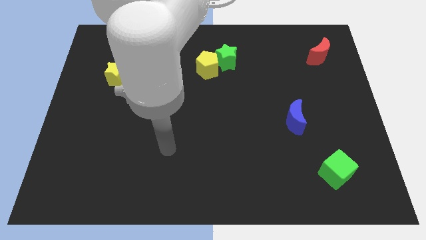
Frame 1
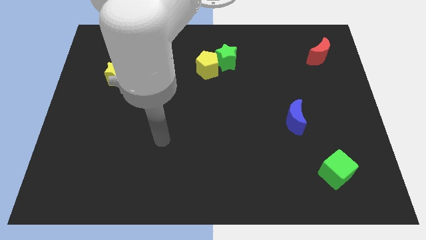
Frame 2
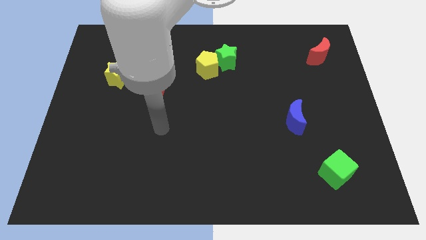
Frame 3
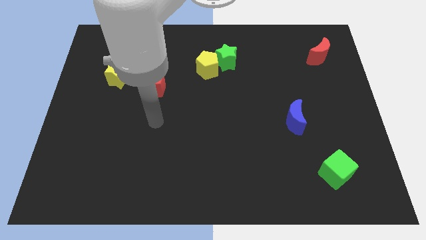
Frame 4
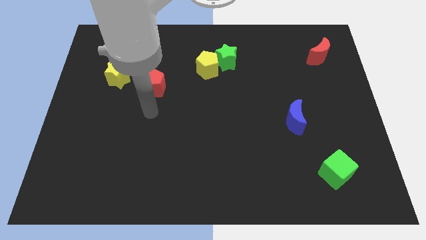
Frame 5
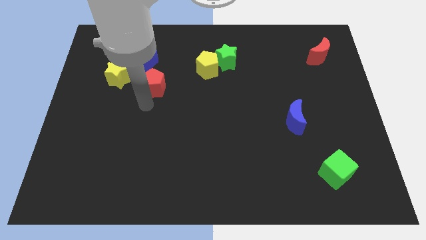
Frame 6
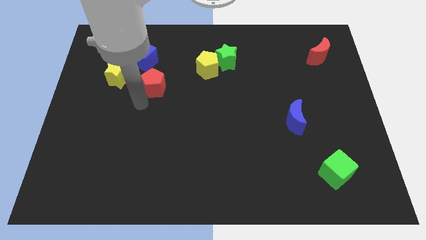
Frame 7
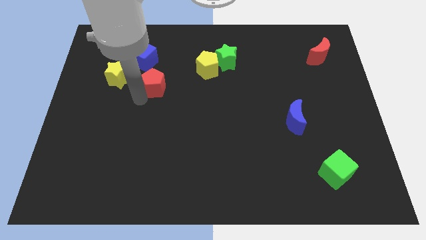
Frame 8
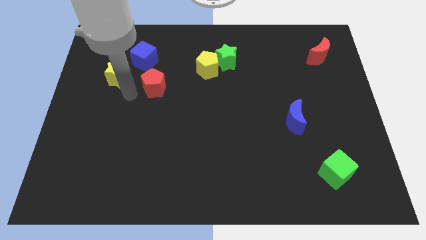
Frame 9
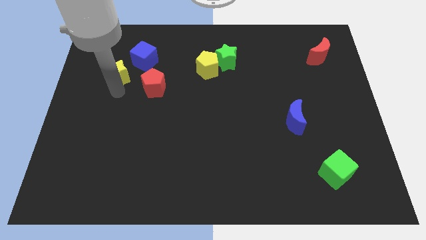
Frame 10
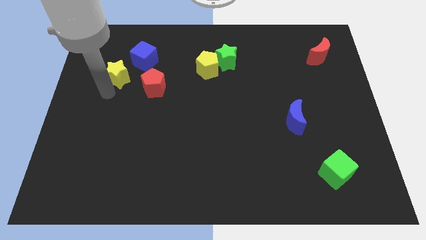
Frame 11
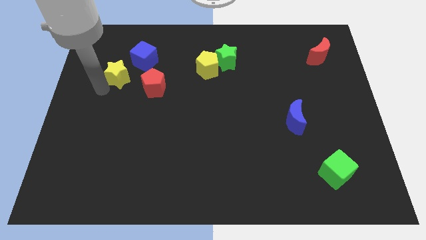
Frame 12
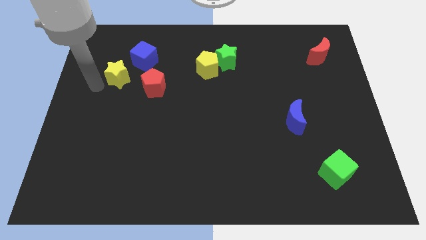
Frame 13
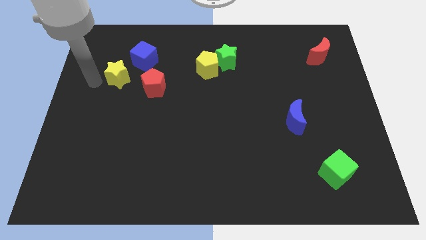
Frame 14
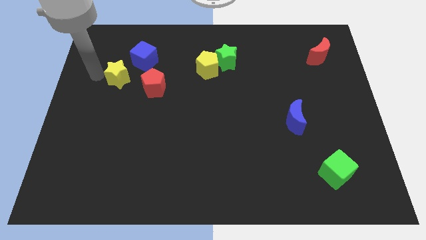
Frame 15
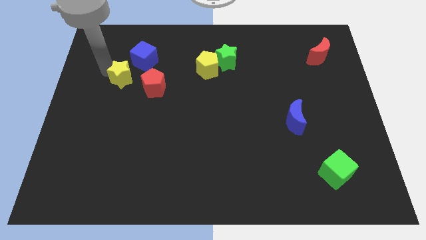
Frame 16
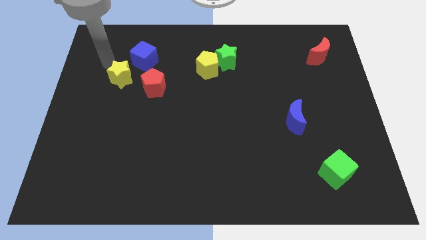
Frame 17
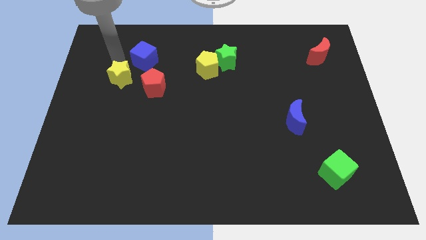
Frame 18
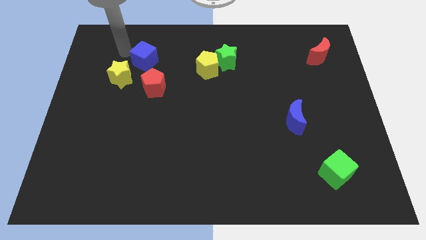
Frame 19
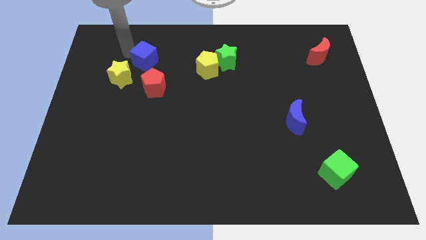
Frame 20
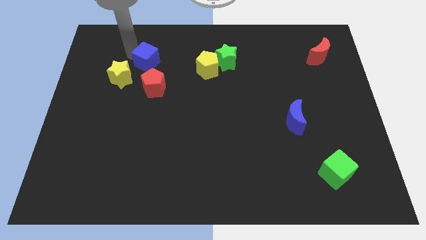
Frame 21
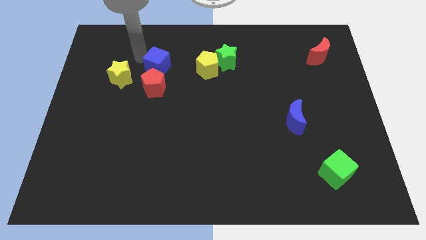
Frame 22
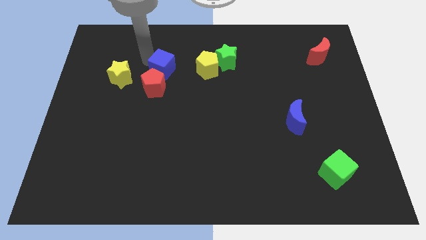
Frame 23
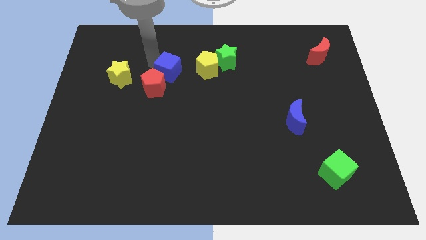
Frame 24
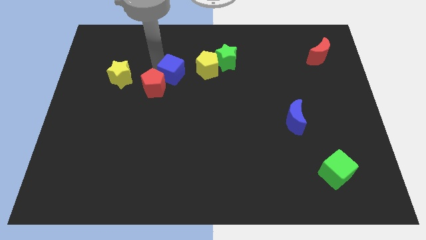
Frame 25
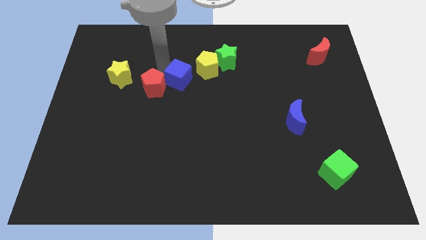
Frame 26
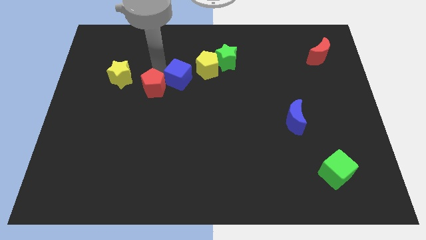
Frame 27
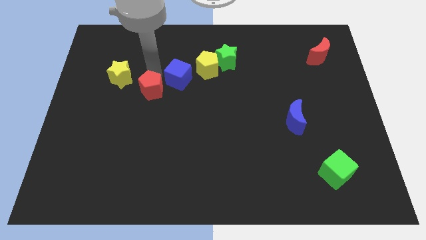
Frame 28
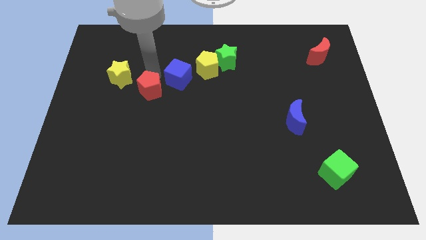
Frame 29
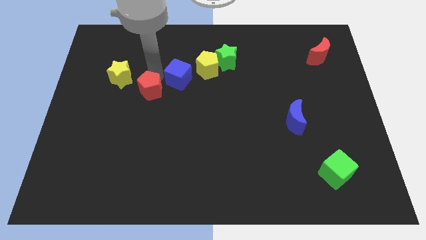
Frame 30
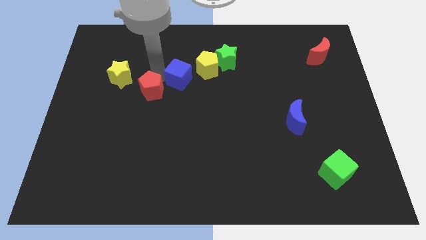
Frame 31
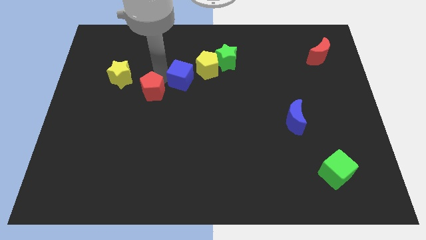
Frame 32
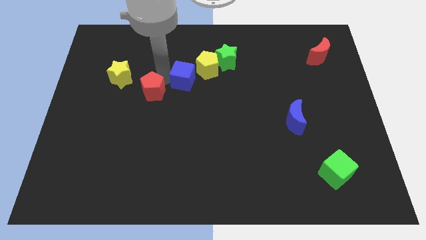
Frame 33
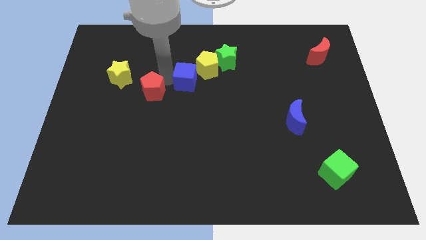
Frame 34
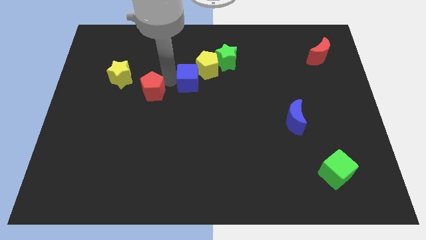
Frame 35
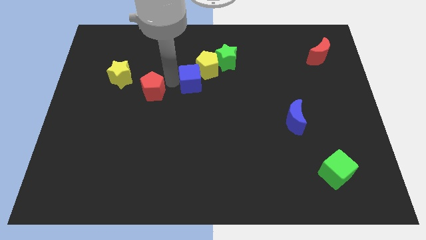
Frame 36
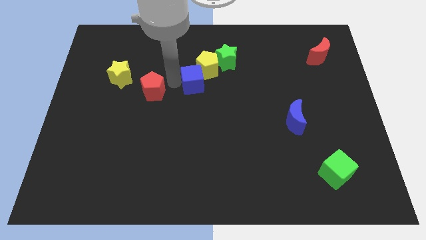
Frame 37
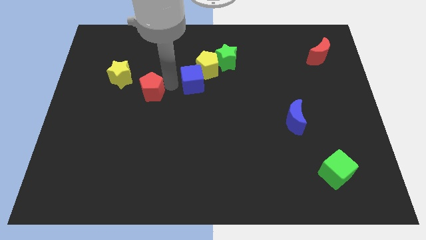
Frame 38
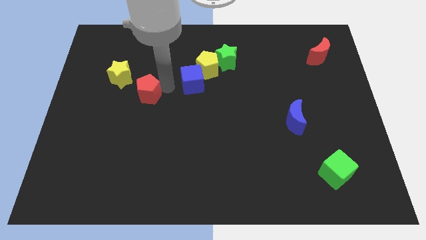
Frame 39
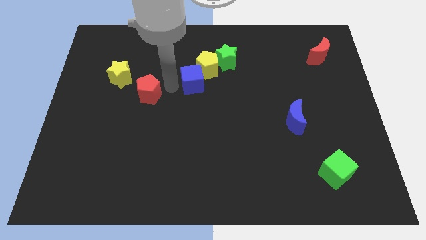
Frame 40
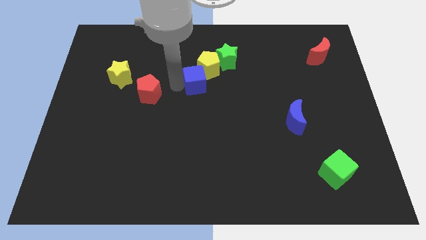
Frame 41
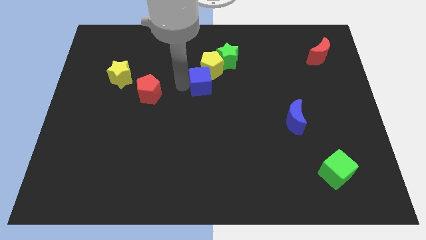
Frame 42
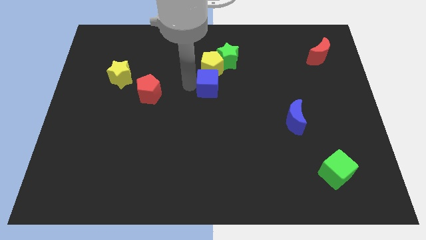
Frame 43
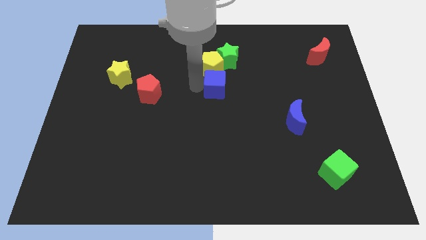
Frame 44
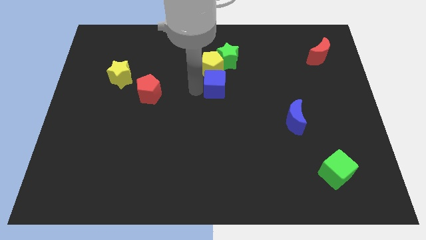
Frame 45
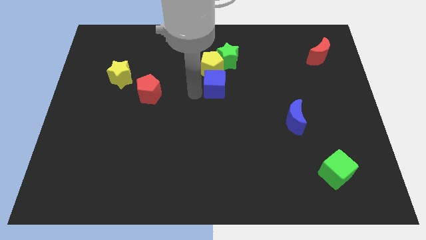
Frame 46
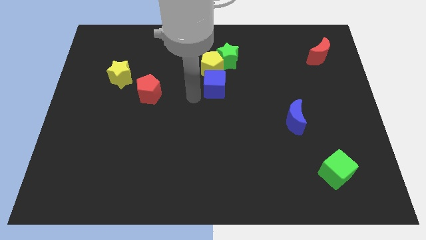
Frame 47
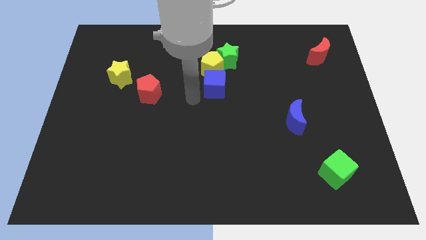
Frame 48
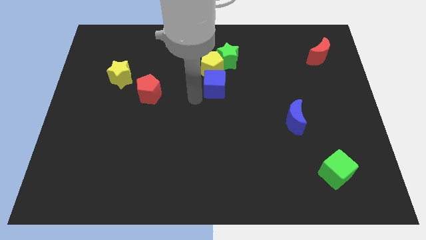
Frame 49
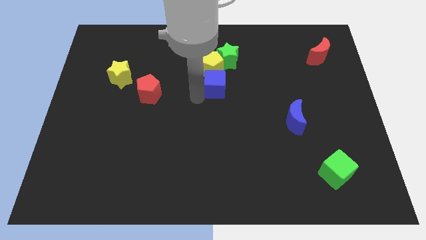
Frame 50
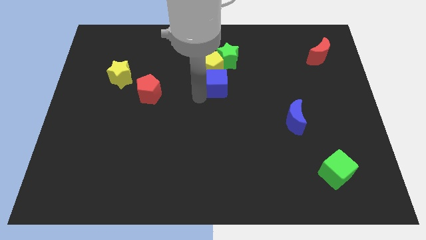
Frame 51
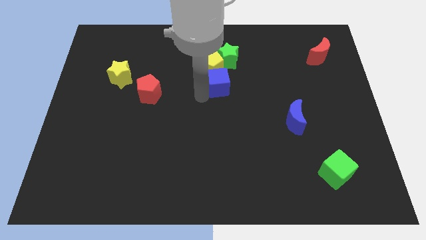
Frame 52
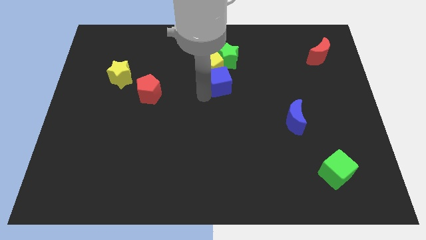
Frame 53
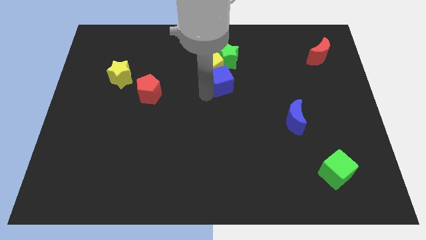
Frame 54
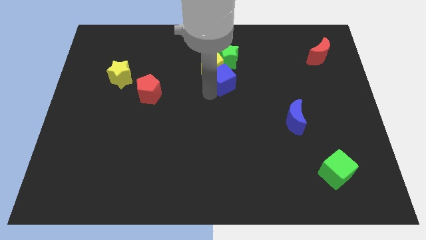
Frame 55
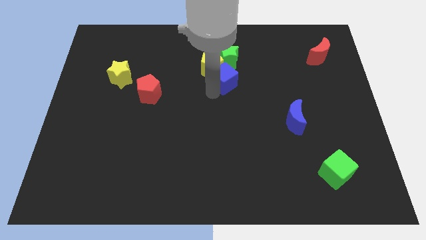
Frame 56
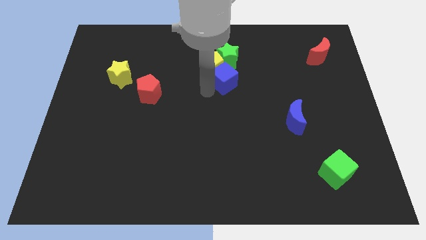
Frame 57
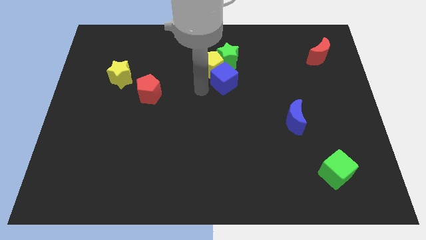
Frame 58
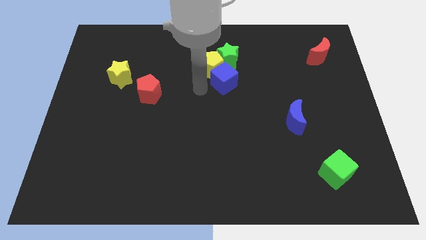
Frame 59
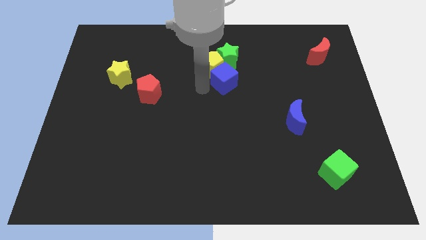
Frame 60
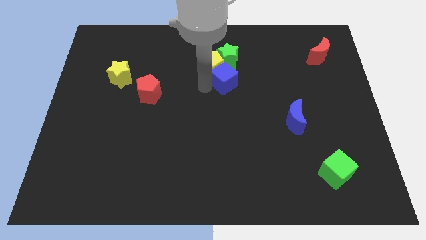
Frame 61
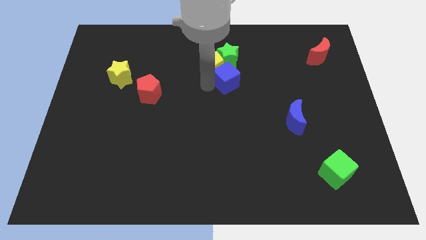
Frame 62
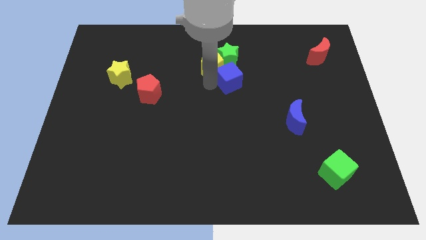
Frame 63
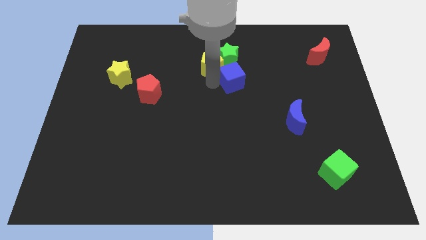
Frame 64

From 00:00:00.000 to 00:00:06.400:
move the blue cube diagonally down and to the right of the green star

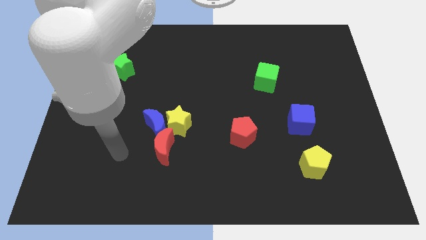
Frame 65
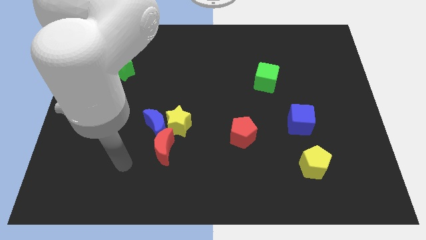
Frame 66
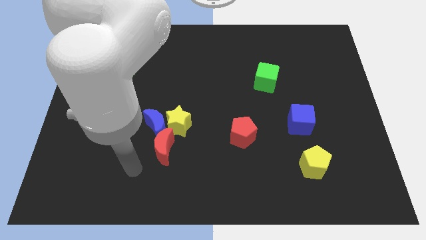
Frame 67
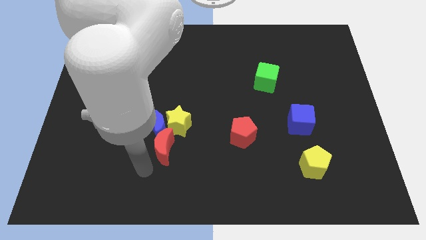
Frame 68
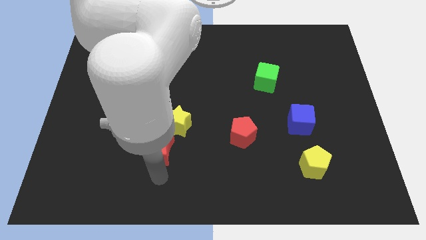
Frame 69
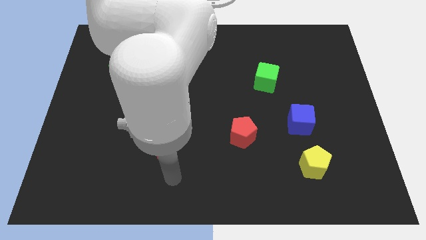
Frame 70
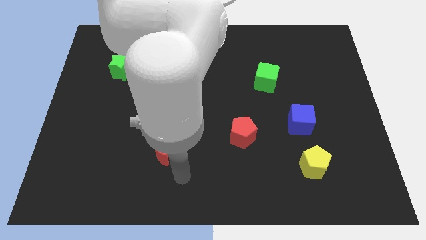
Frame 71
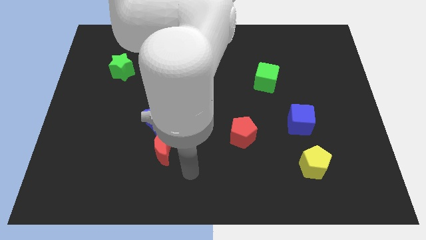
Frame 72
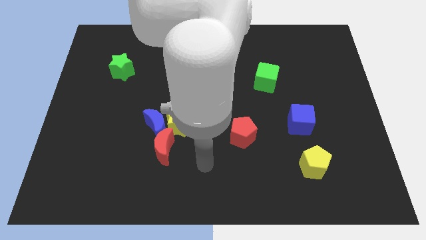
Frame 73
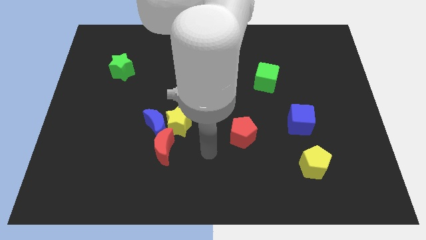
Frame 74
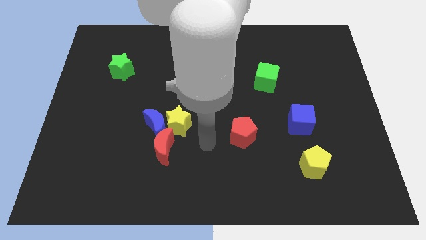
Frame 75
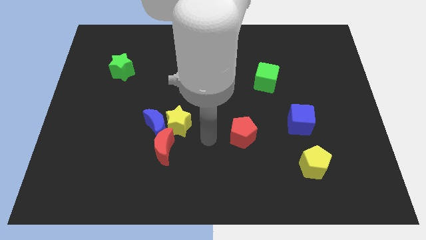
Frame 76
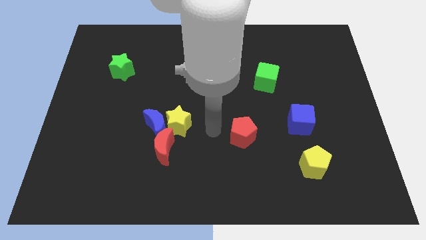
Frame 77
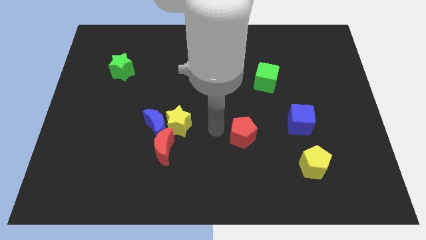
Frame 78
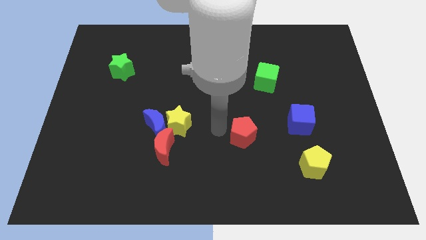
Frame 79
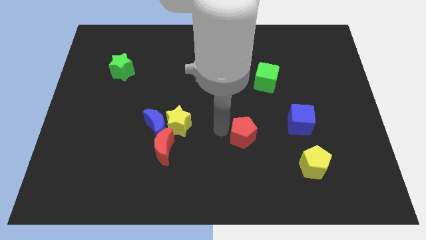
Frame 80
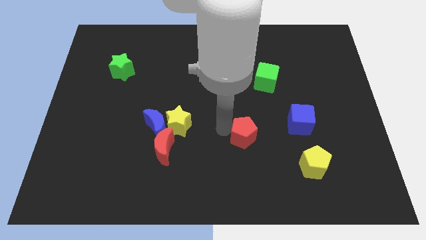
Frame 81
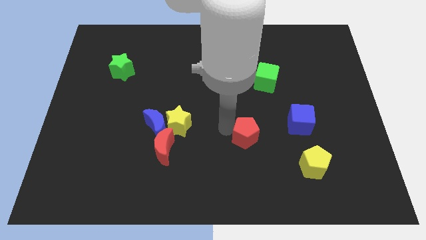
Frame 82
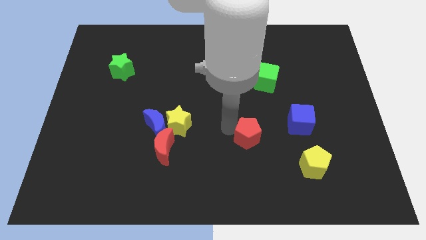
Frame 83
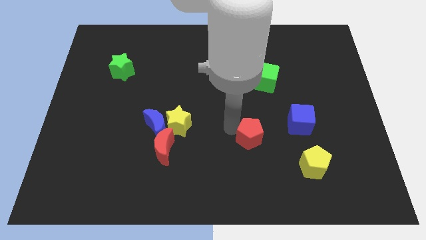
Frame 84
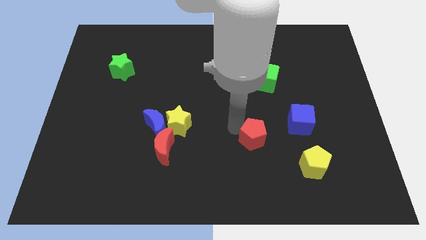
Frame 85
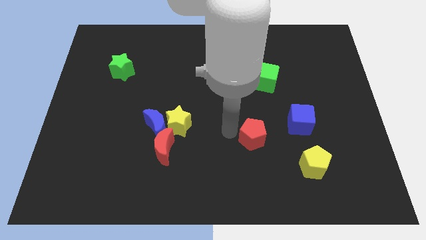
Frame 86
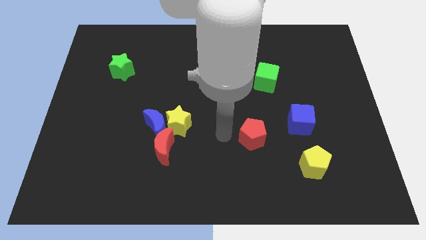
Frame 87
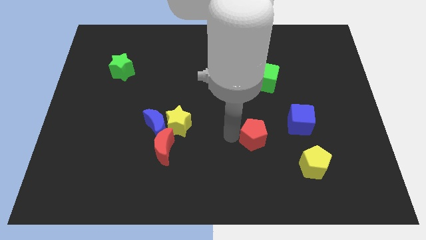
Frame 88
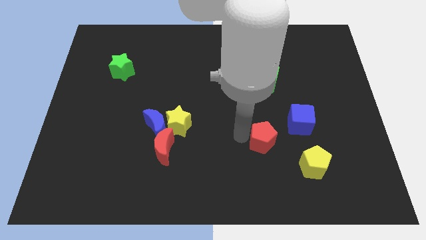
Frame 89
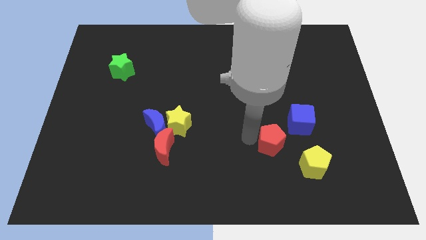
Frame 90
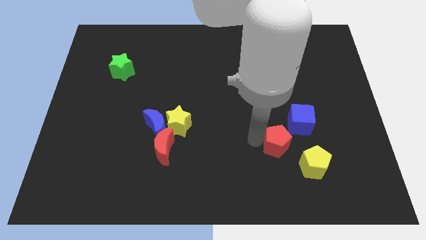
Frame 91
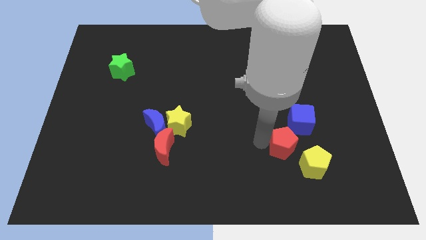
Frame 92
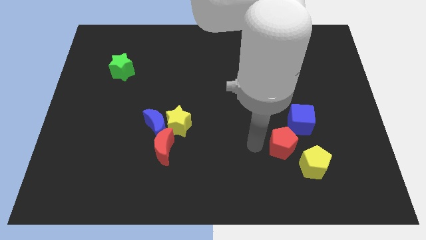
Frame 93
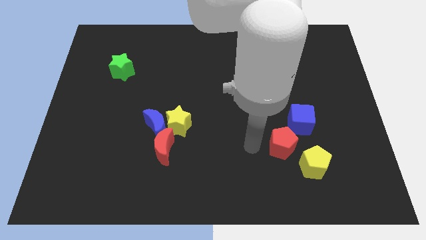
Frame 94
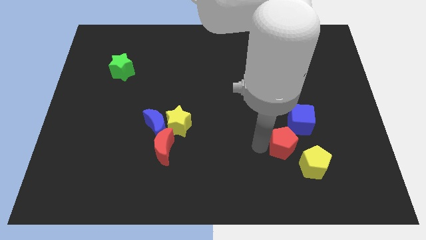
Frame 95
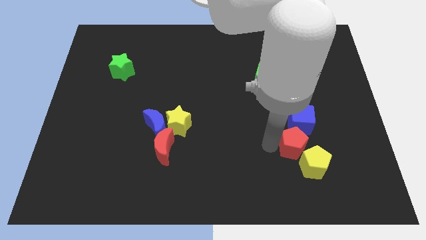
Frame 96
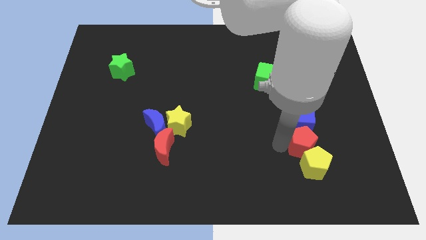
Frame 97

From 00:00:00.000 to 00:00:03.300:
push the red pentagon to the bottom right of the blue cube
